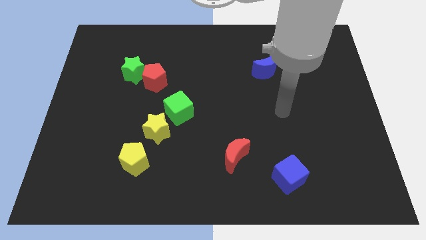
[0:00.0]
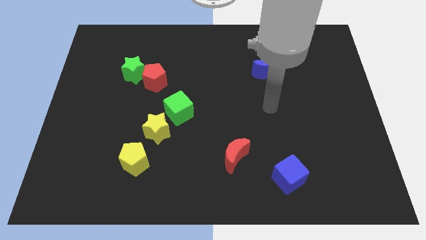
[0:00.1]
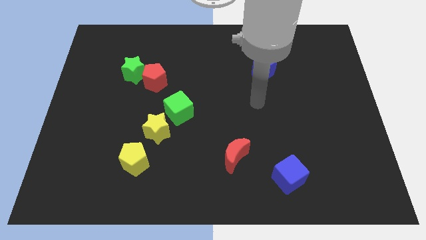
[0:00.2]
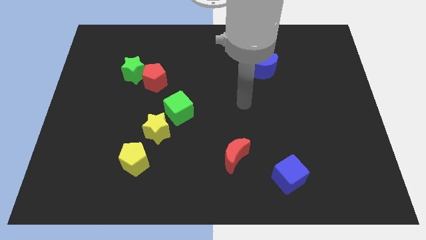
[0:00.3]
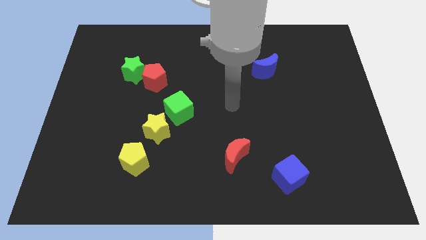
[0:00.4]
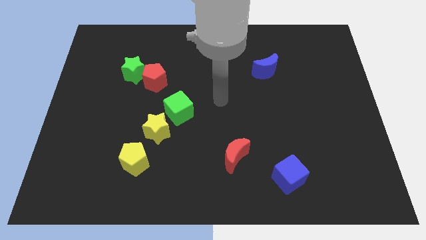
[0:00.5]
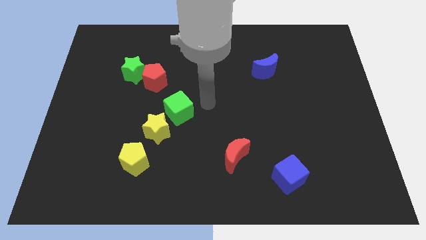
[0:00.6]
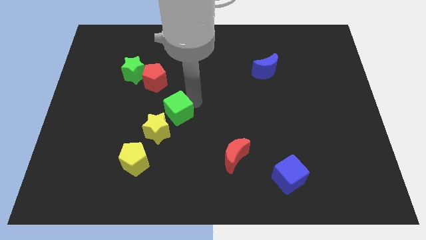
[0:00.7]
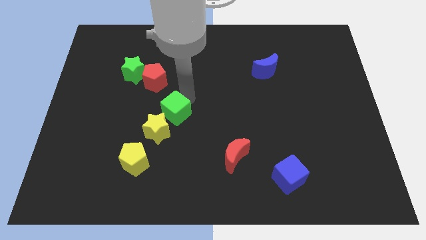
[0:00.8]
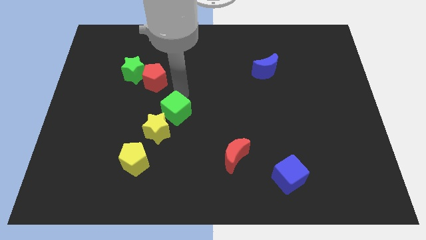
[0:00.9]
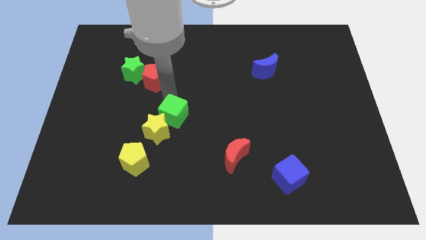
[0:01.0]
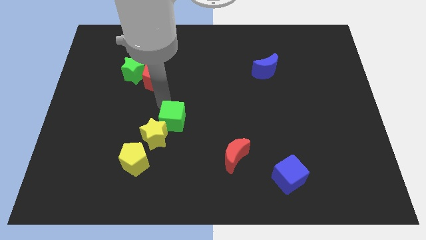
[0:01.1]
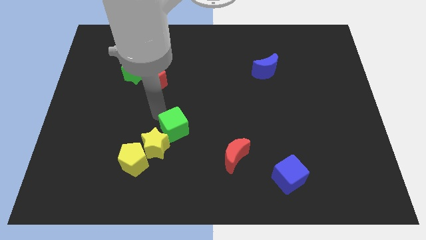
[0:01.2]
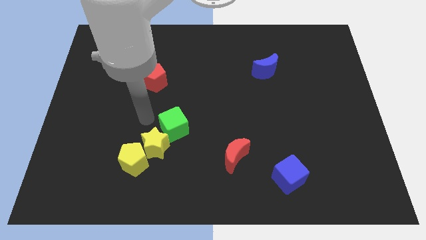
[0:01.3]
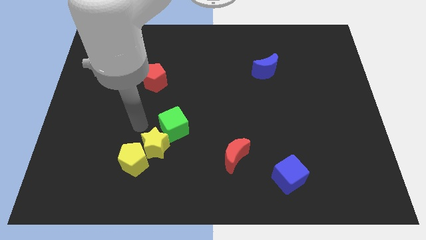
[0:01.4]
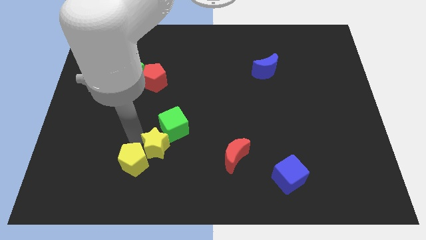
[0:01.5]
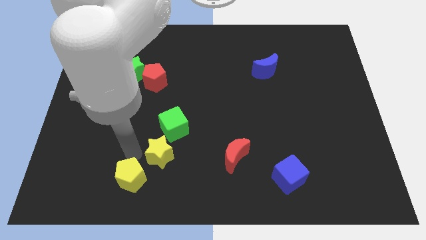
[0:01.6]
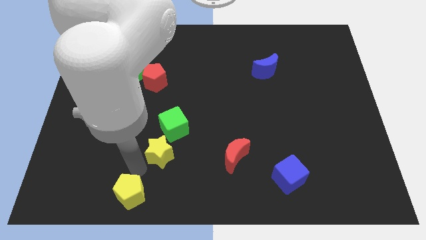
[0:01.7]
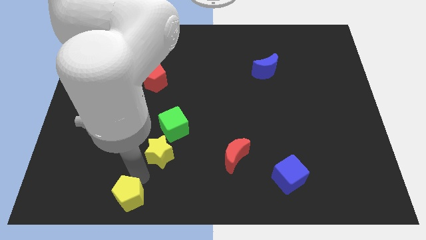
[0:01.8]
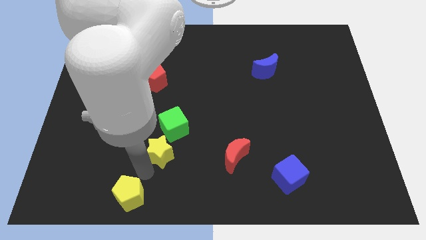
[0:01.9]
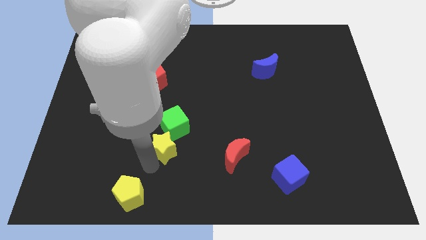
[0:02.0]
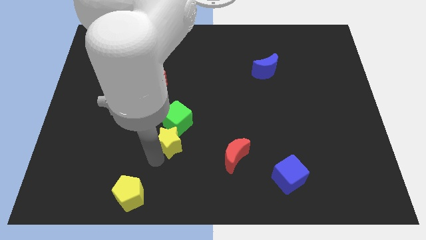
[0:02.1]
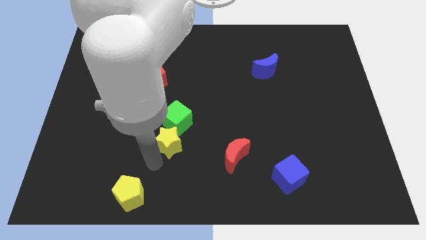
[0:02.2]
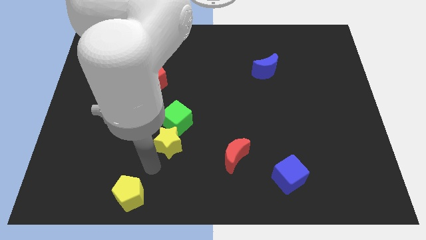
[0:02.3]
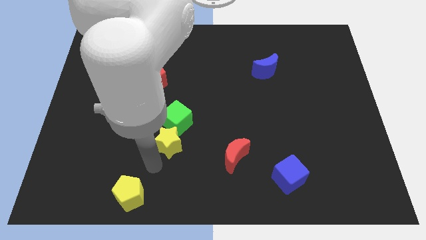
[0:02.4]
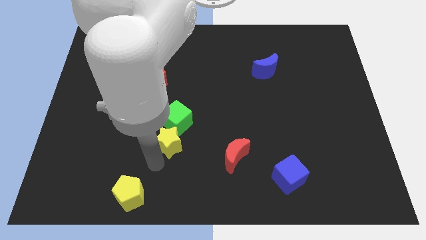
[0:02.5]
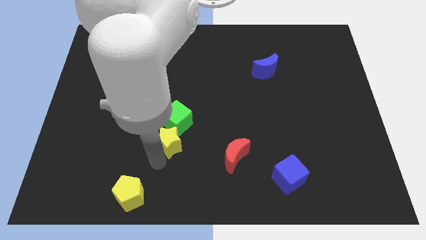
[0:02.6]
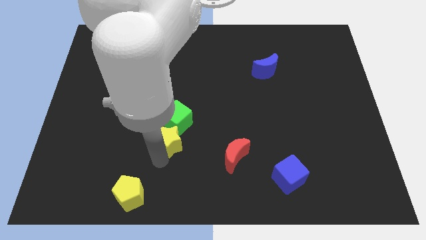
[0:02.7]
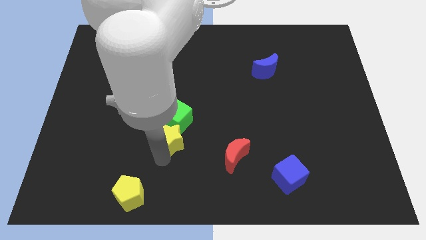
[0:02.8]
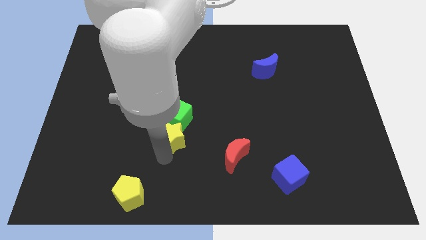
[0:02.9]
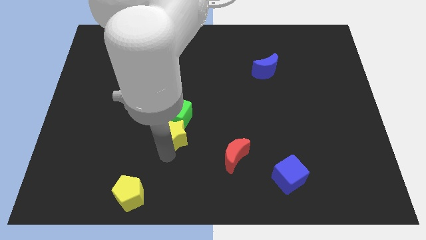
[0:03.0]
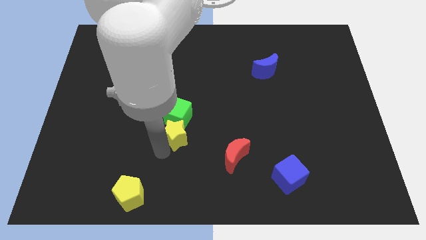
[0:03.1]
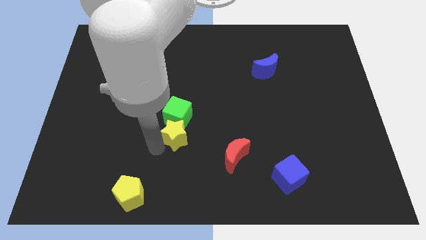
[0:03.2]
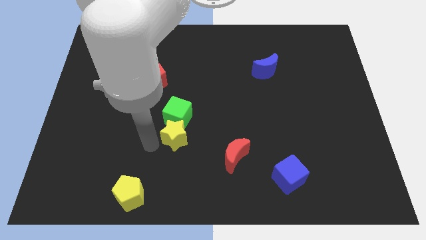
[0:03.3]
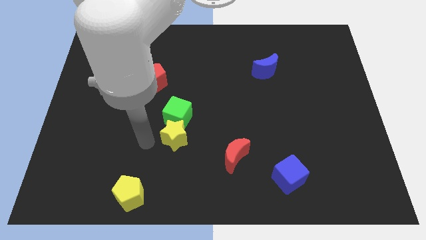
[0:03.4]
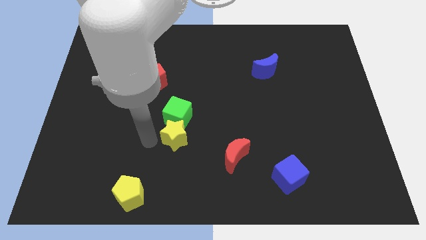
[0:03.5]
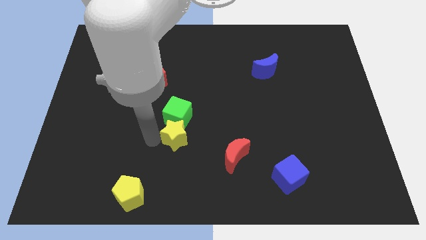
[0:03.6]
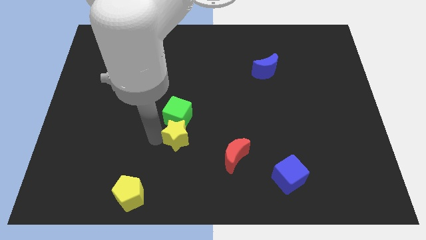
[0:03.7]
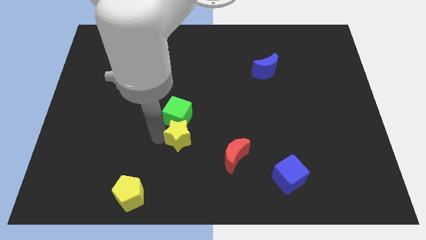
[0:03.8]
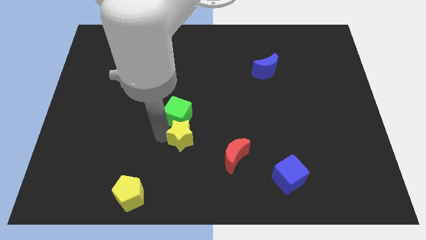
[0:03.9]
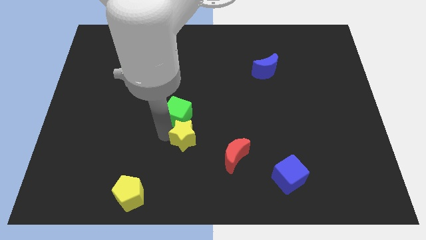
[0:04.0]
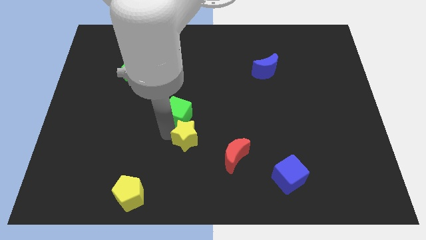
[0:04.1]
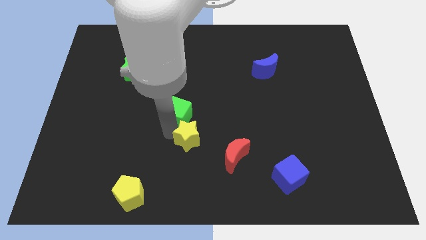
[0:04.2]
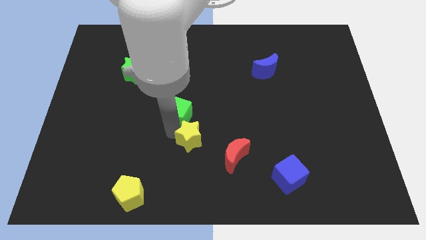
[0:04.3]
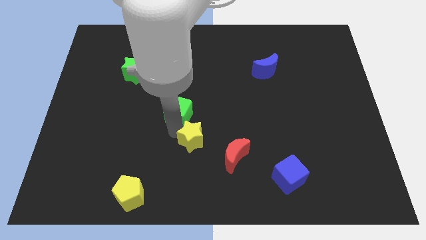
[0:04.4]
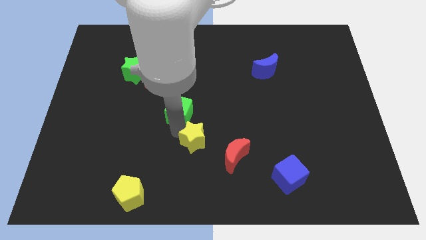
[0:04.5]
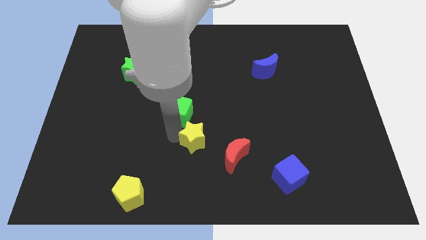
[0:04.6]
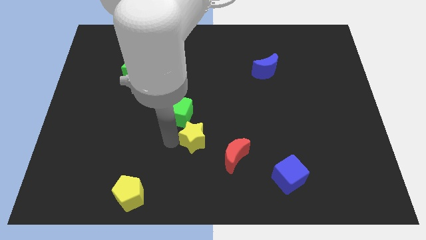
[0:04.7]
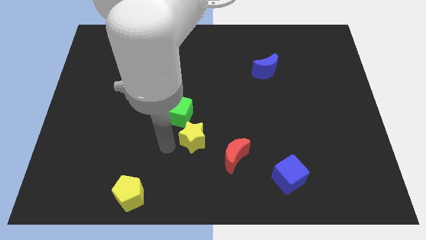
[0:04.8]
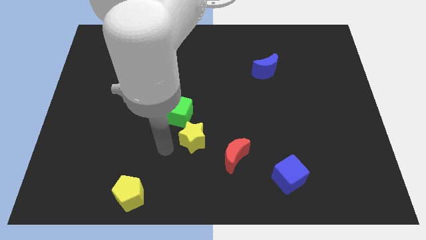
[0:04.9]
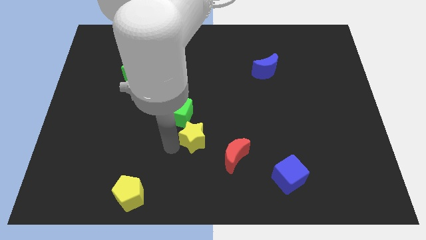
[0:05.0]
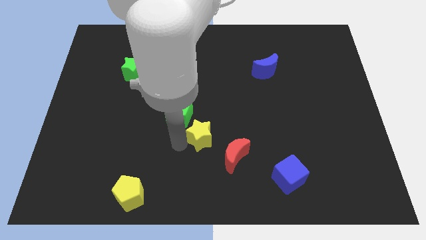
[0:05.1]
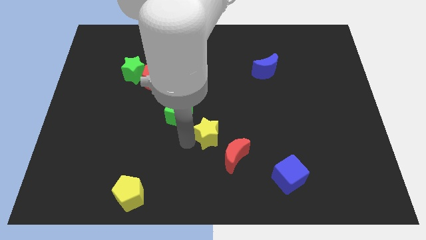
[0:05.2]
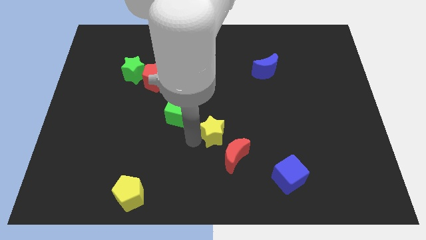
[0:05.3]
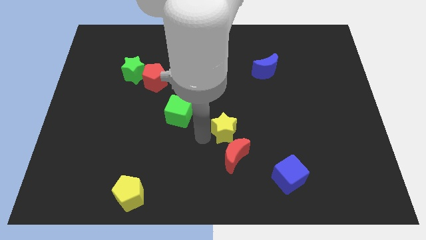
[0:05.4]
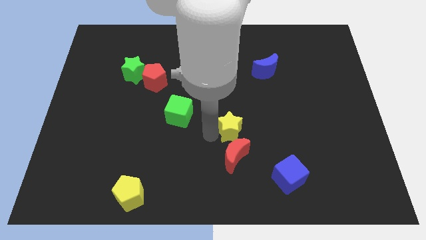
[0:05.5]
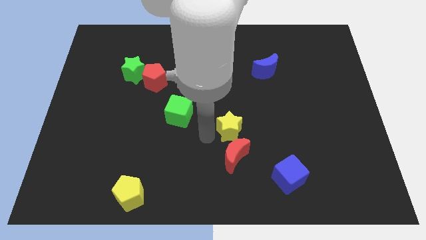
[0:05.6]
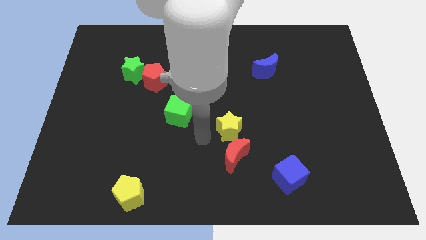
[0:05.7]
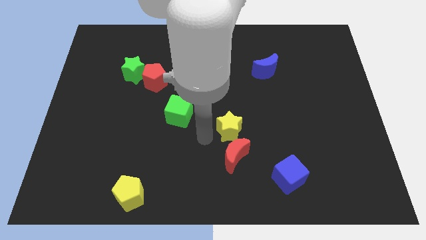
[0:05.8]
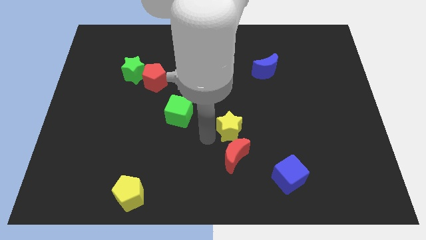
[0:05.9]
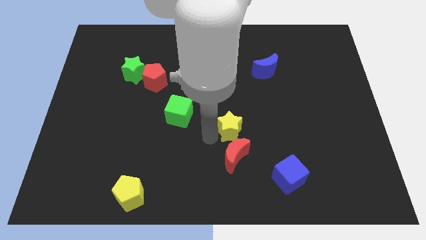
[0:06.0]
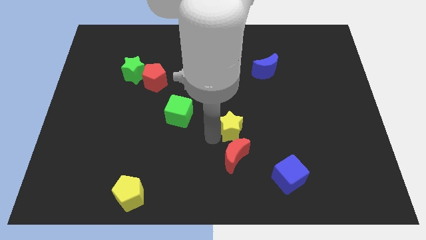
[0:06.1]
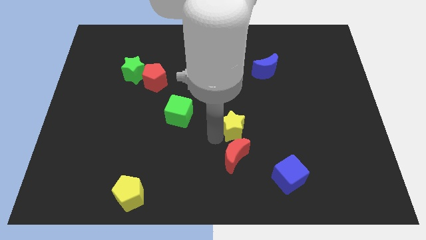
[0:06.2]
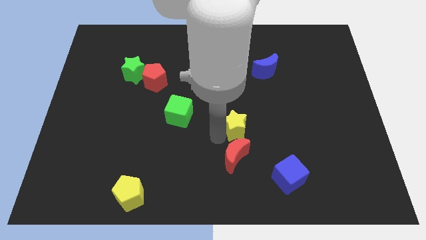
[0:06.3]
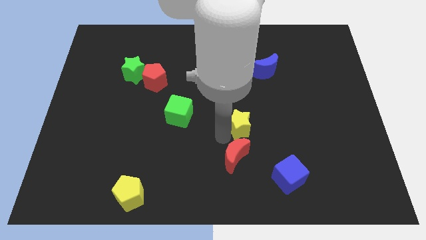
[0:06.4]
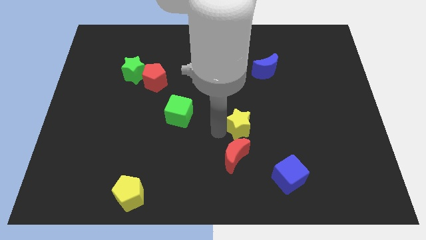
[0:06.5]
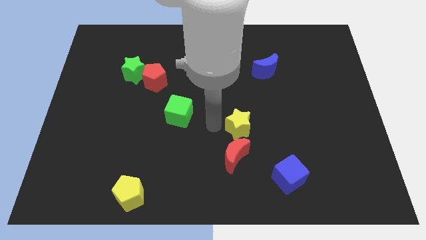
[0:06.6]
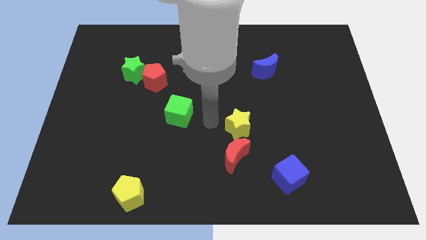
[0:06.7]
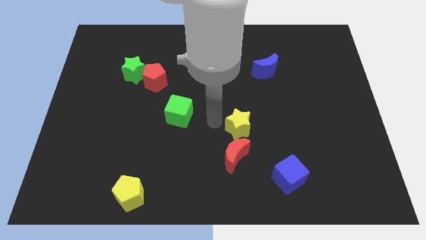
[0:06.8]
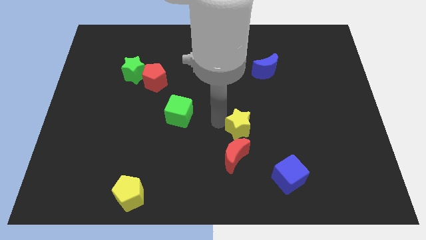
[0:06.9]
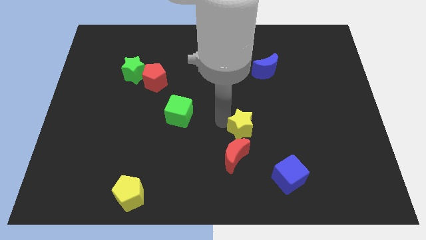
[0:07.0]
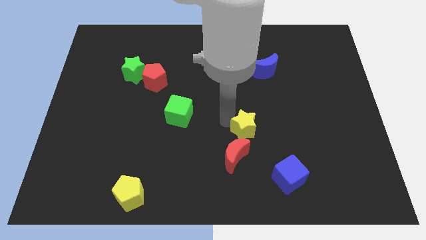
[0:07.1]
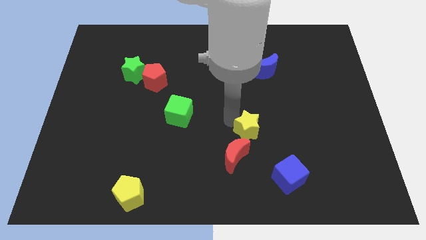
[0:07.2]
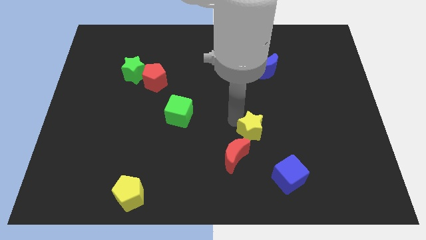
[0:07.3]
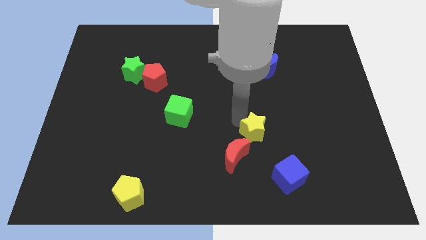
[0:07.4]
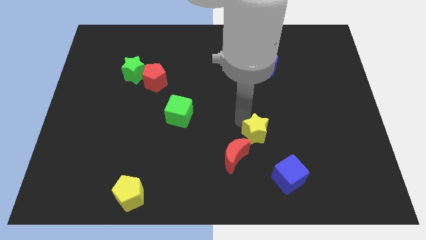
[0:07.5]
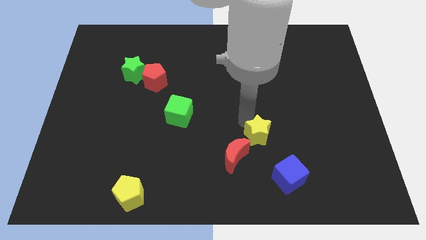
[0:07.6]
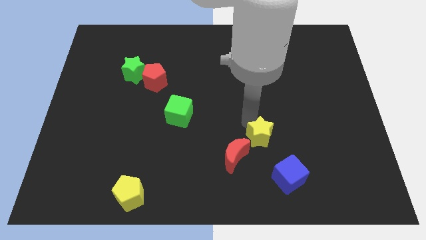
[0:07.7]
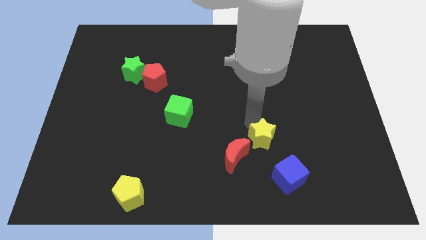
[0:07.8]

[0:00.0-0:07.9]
put the yellow star to the top side of the blue cube
